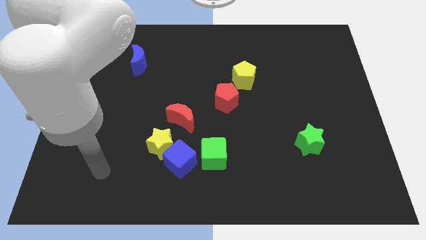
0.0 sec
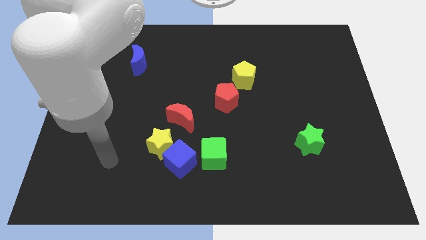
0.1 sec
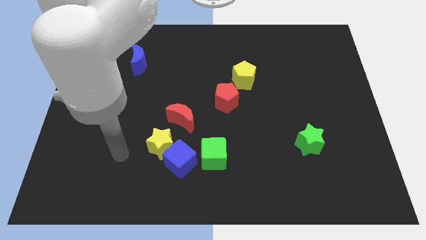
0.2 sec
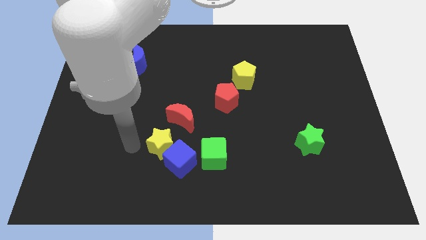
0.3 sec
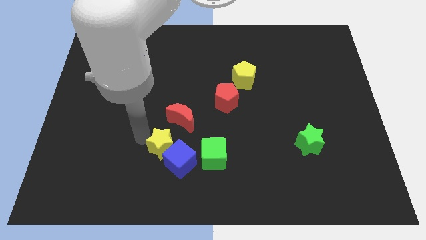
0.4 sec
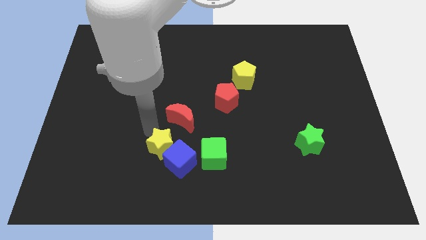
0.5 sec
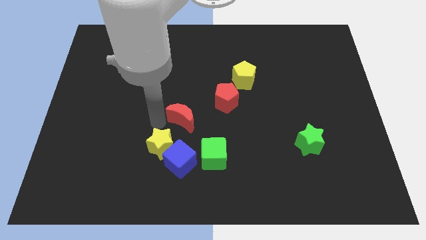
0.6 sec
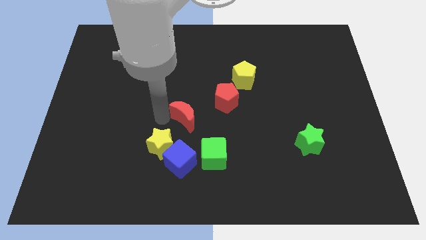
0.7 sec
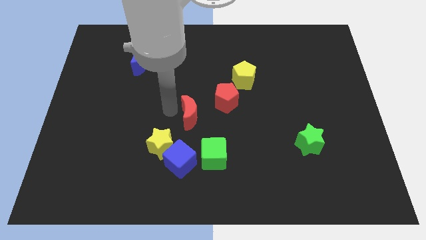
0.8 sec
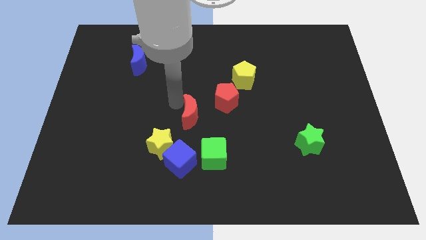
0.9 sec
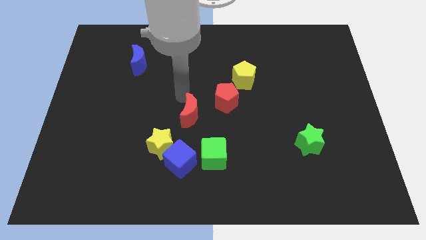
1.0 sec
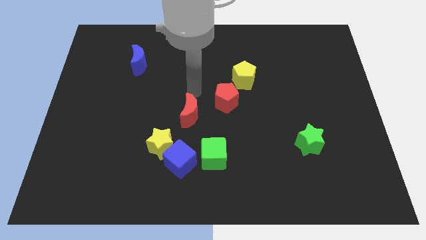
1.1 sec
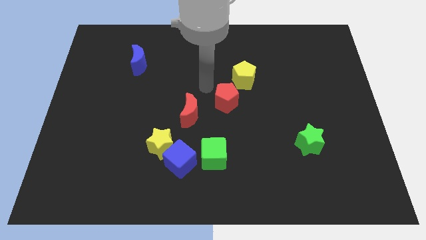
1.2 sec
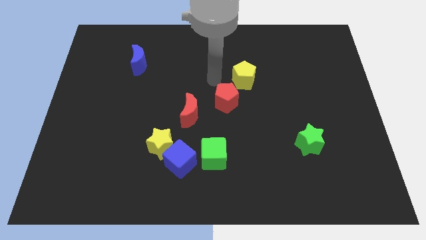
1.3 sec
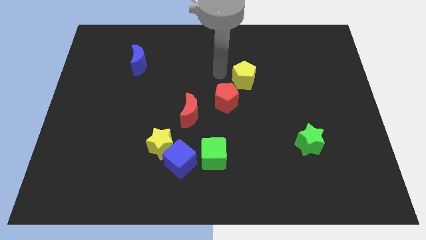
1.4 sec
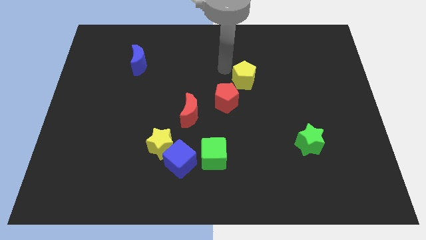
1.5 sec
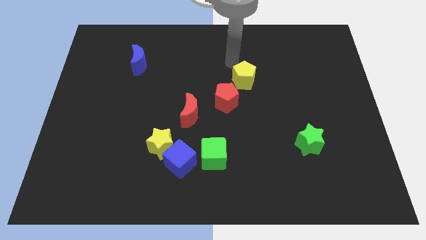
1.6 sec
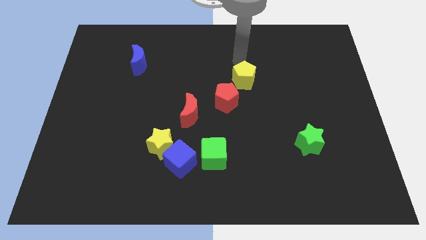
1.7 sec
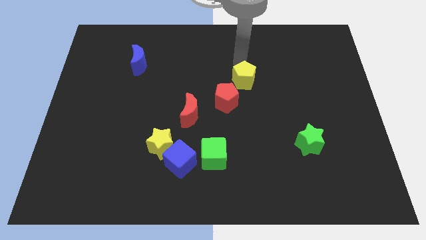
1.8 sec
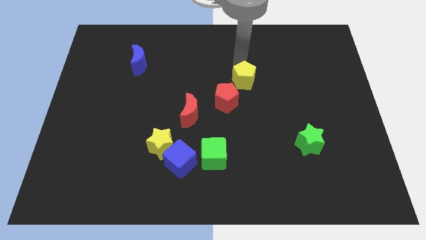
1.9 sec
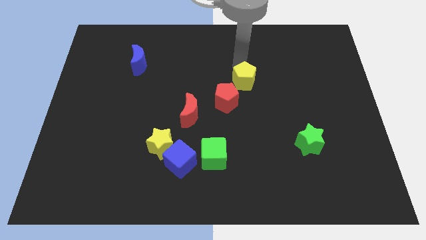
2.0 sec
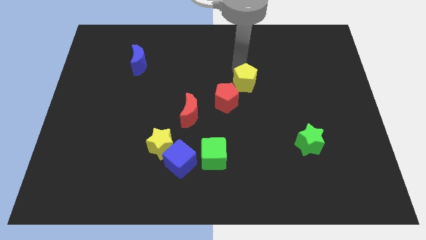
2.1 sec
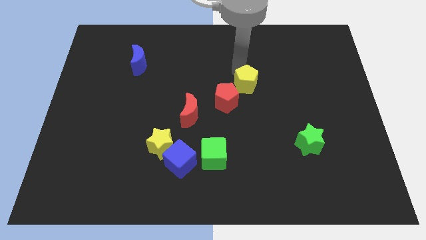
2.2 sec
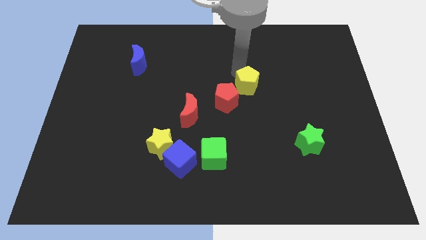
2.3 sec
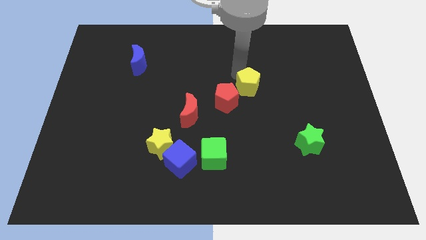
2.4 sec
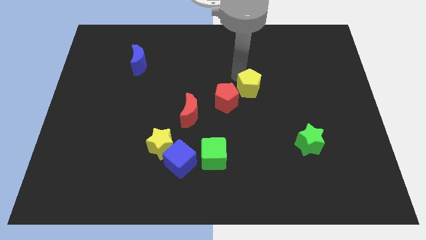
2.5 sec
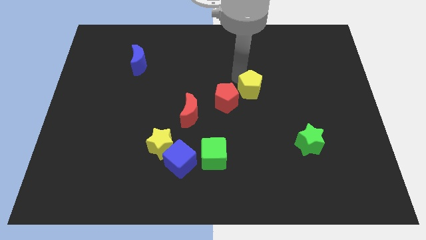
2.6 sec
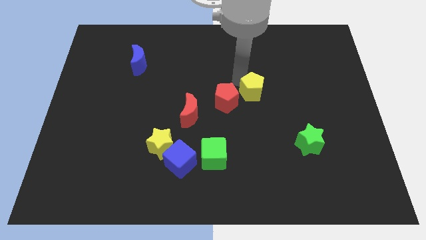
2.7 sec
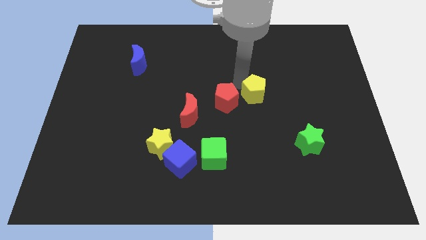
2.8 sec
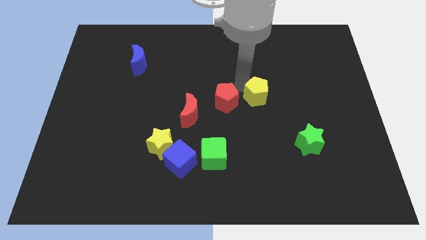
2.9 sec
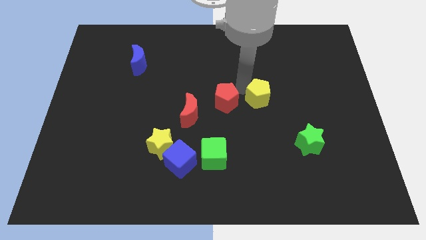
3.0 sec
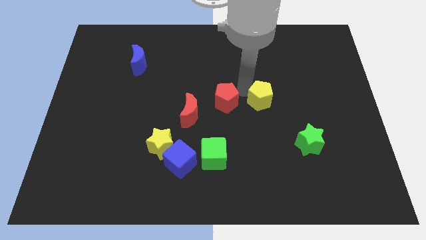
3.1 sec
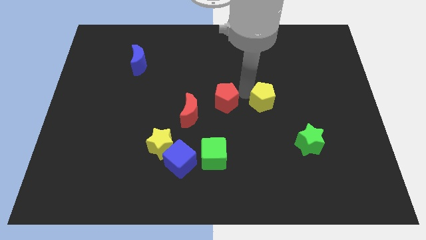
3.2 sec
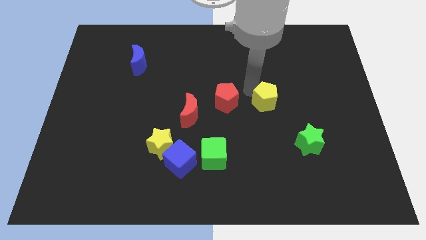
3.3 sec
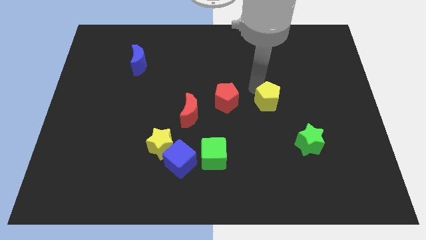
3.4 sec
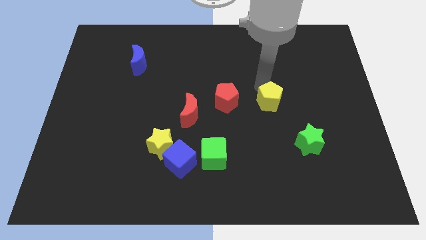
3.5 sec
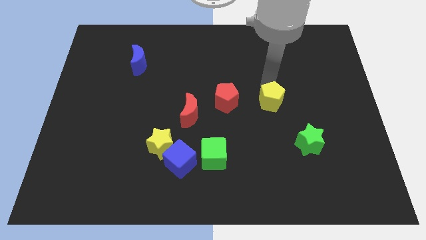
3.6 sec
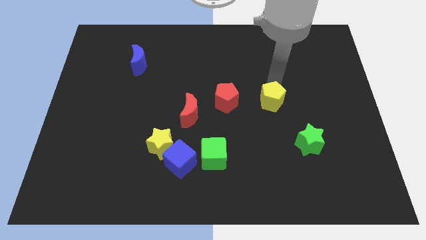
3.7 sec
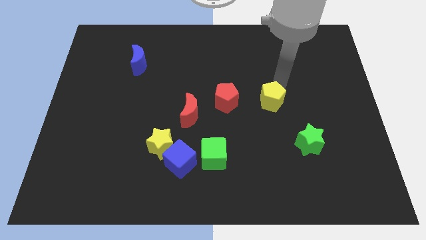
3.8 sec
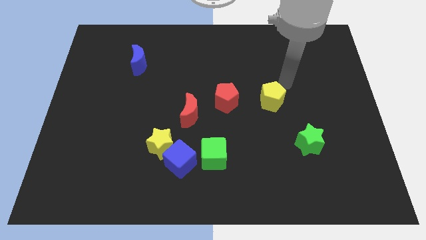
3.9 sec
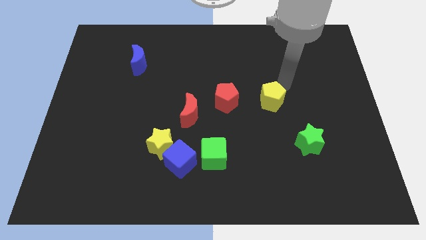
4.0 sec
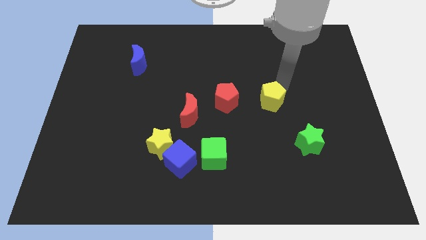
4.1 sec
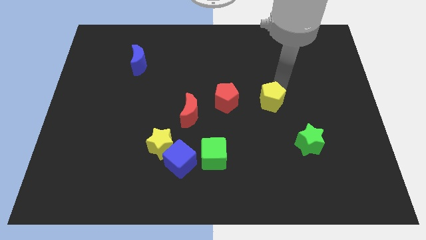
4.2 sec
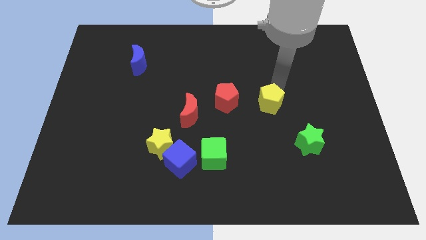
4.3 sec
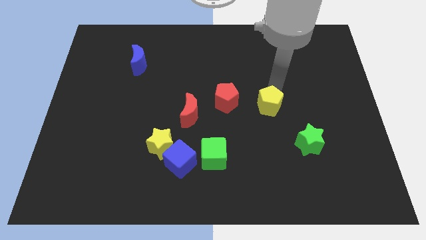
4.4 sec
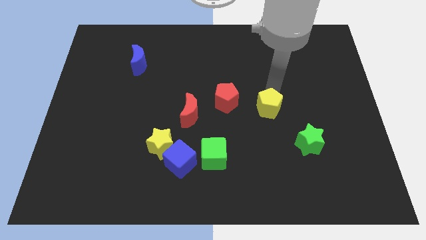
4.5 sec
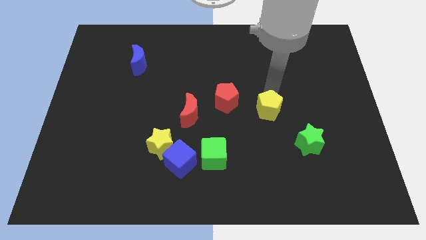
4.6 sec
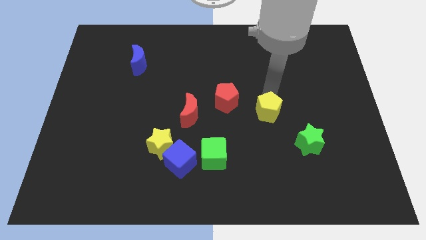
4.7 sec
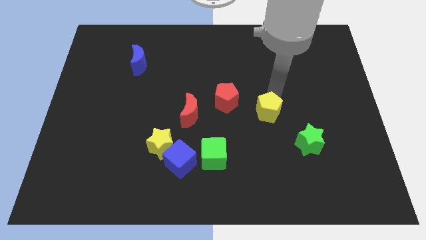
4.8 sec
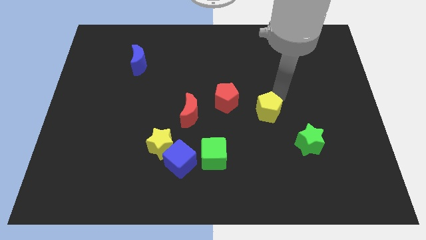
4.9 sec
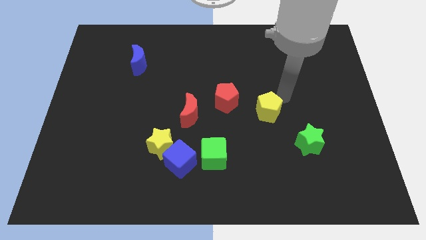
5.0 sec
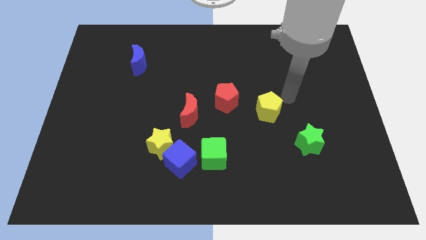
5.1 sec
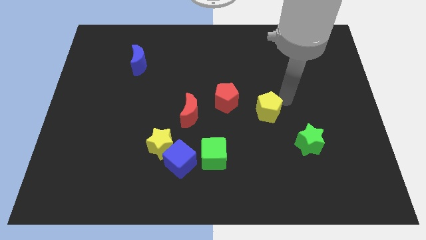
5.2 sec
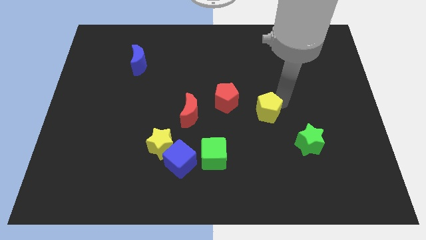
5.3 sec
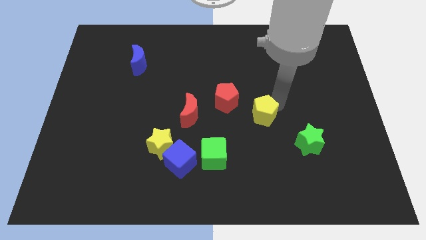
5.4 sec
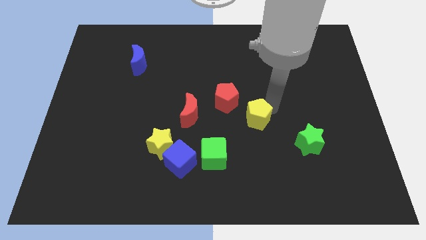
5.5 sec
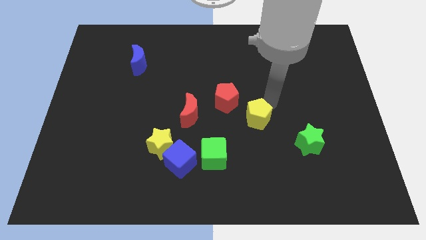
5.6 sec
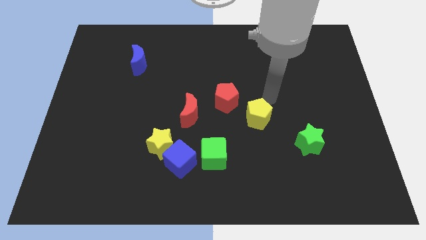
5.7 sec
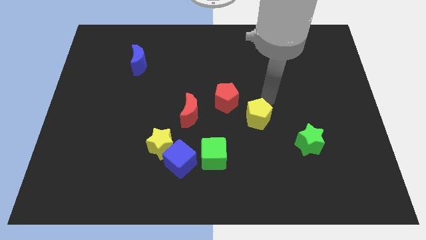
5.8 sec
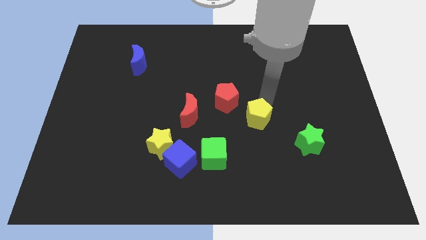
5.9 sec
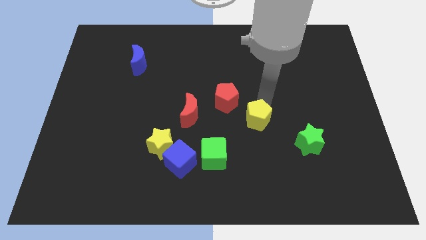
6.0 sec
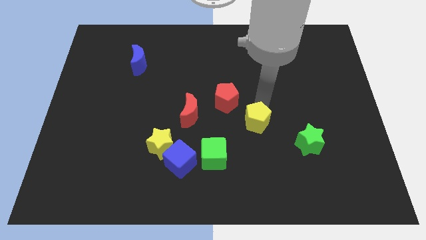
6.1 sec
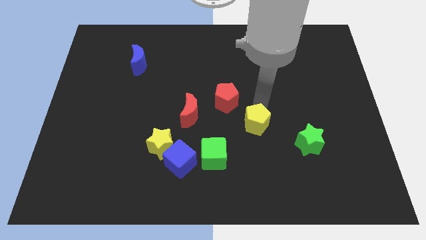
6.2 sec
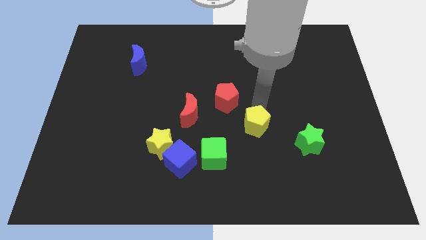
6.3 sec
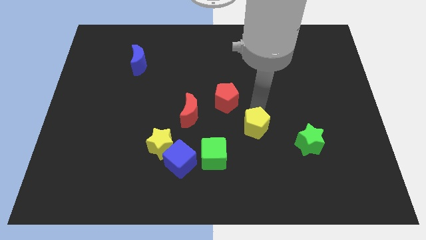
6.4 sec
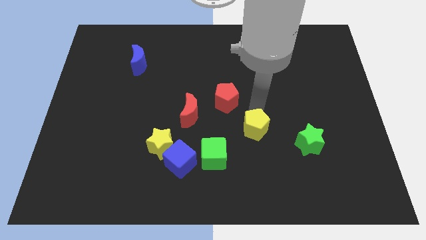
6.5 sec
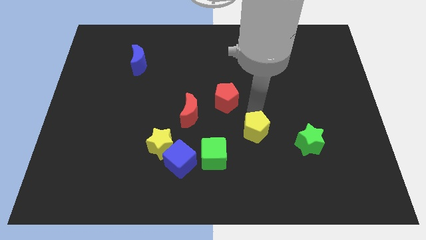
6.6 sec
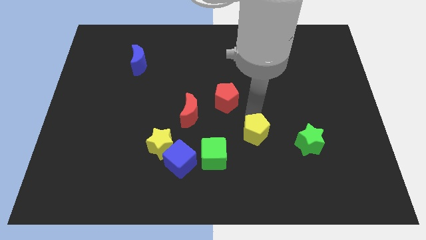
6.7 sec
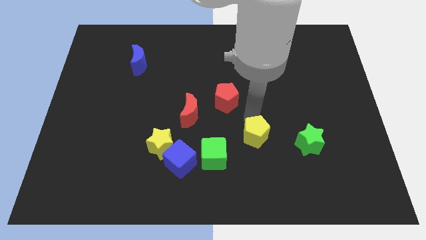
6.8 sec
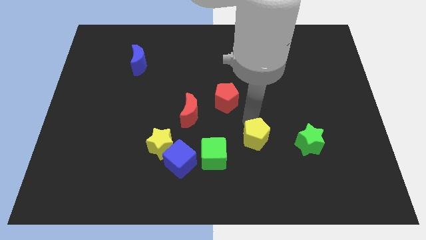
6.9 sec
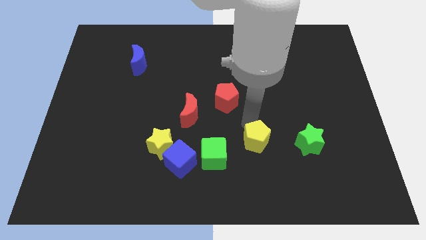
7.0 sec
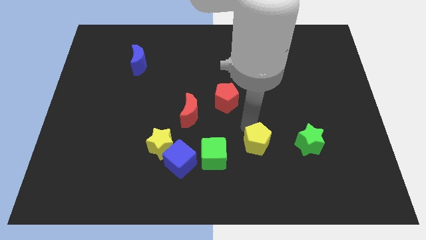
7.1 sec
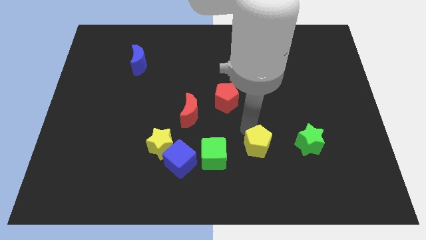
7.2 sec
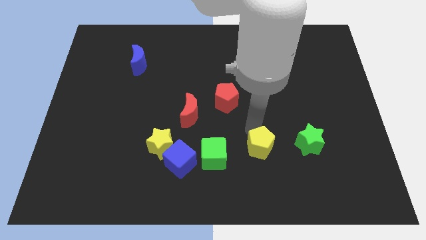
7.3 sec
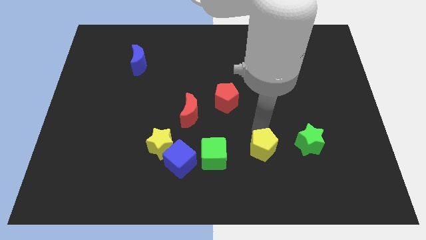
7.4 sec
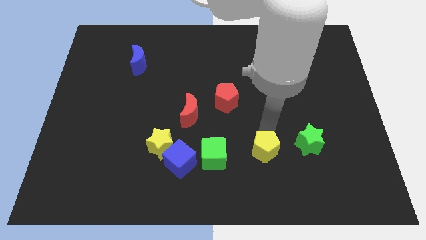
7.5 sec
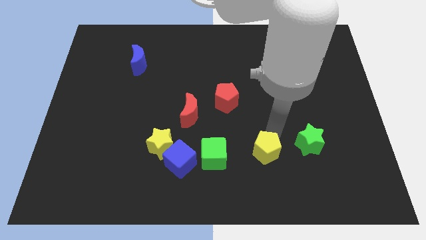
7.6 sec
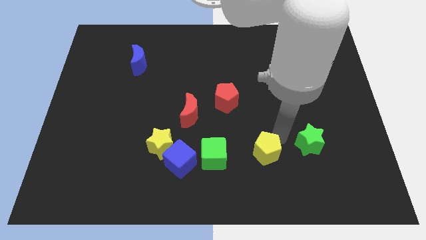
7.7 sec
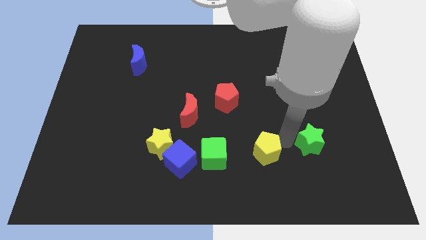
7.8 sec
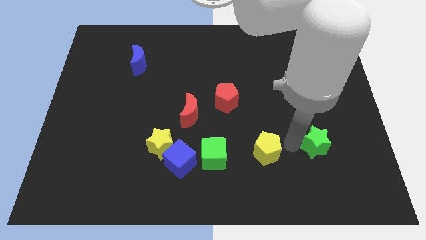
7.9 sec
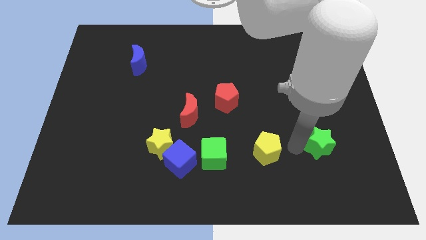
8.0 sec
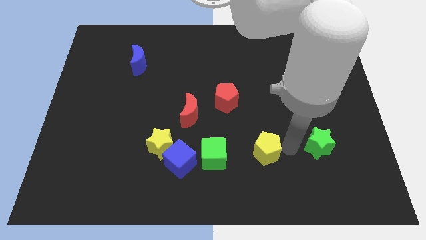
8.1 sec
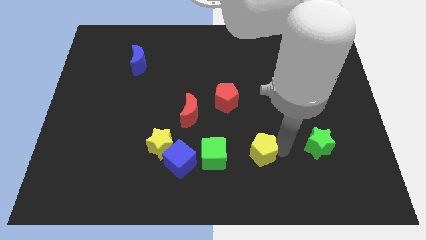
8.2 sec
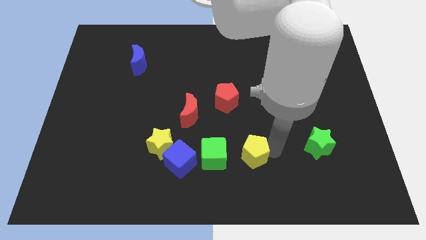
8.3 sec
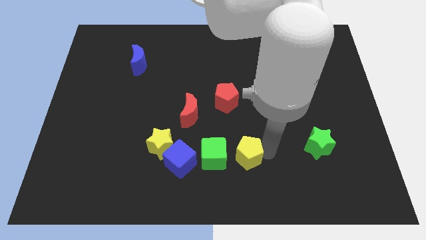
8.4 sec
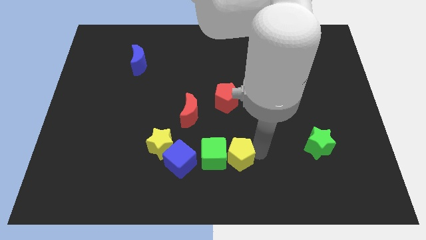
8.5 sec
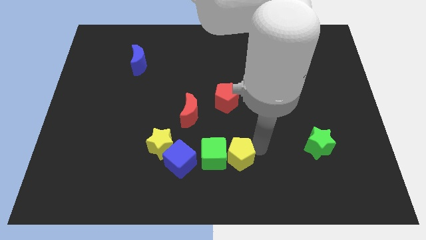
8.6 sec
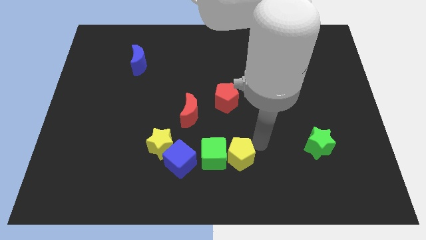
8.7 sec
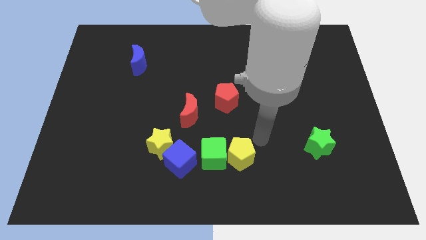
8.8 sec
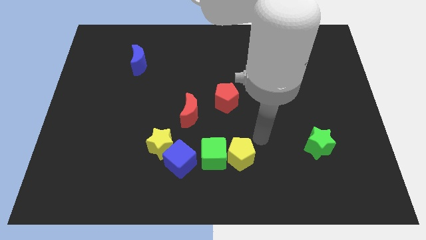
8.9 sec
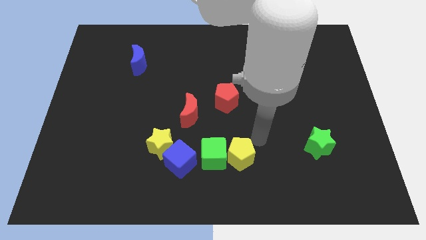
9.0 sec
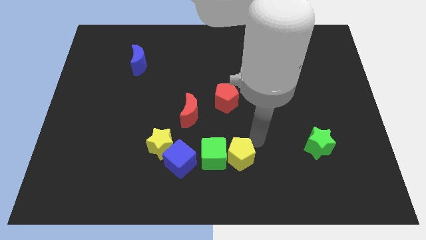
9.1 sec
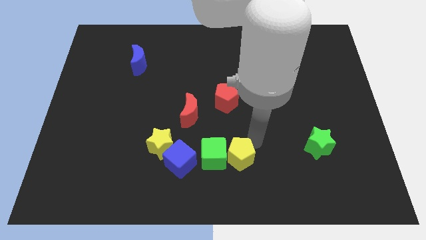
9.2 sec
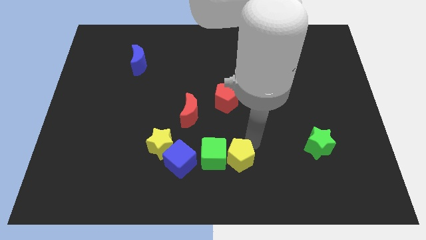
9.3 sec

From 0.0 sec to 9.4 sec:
slide the yellow pentagon to the bottom
